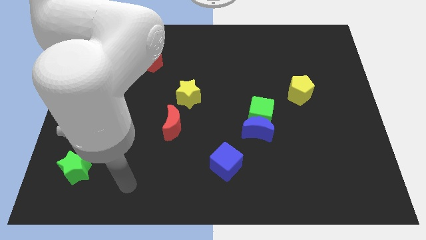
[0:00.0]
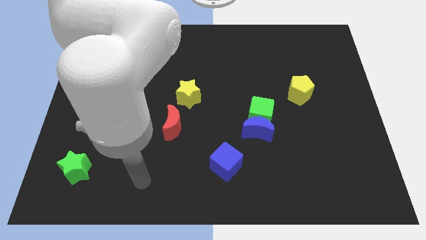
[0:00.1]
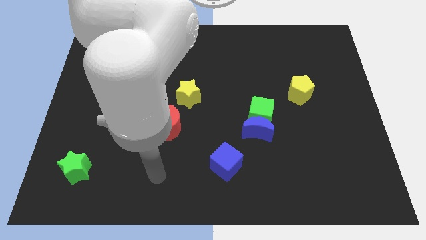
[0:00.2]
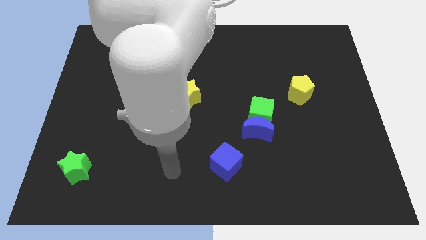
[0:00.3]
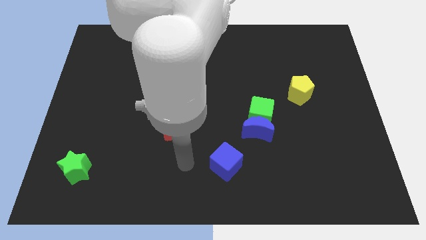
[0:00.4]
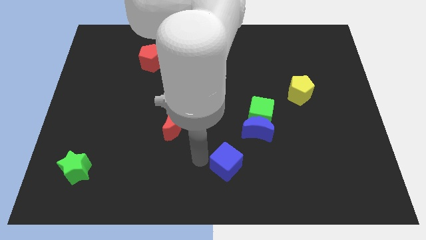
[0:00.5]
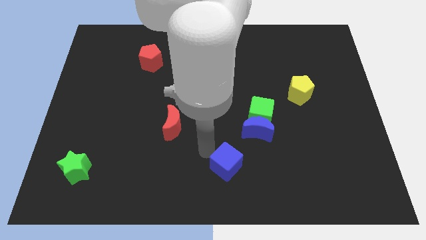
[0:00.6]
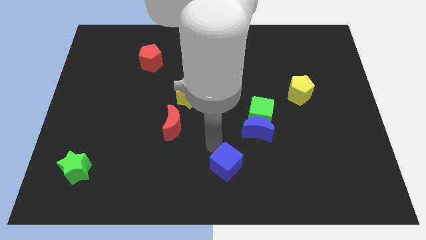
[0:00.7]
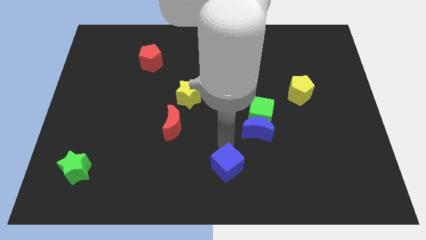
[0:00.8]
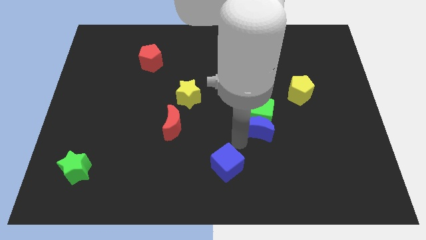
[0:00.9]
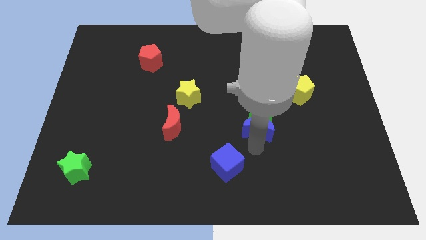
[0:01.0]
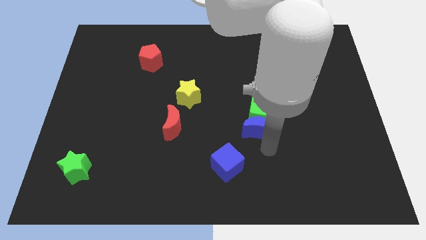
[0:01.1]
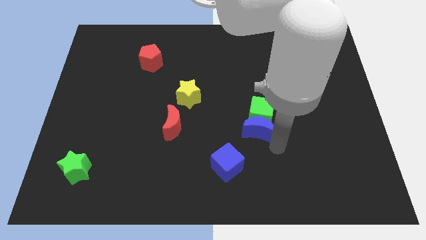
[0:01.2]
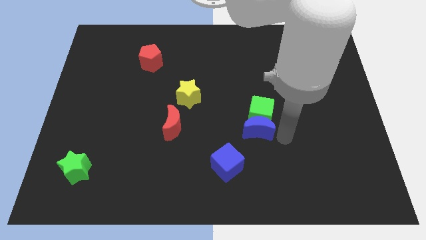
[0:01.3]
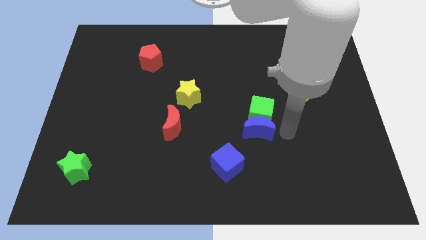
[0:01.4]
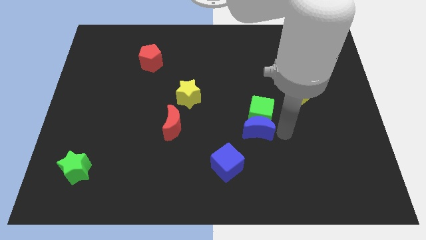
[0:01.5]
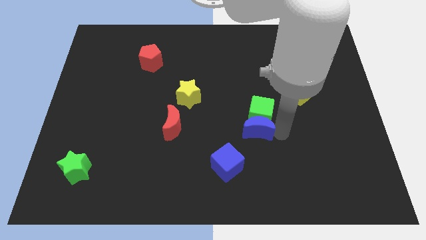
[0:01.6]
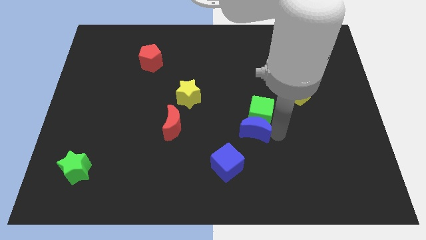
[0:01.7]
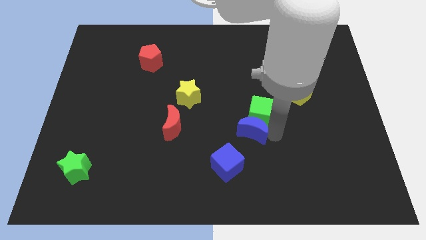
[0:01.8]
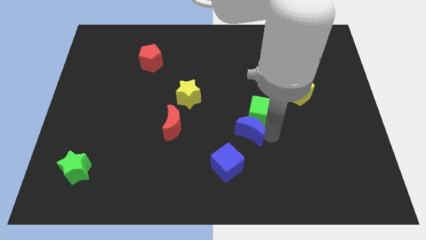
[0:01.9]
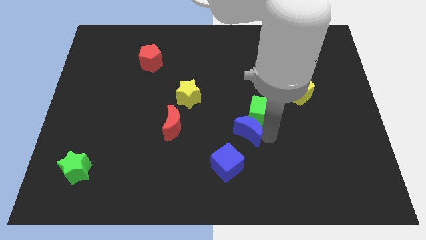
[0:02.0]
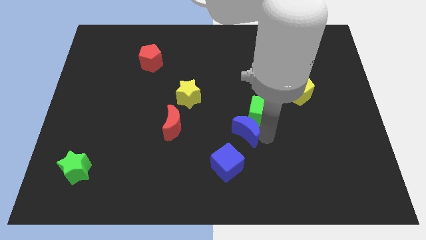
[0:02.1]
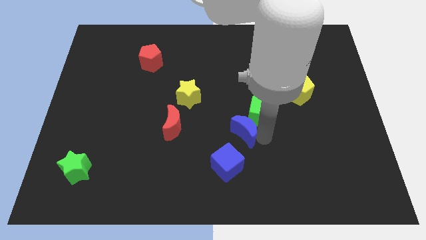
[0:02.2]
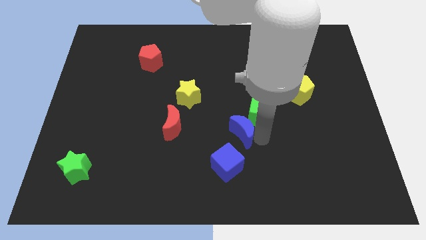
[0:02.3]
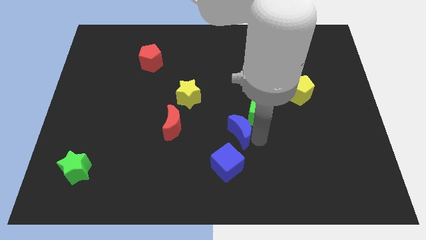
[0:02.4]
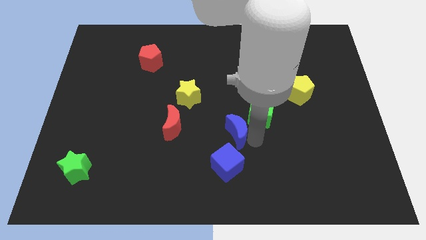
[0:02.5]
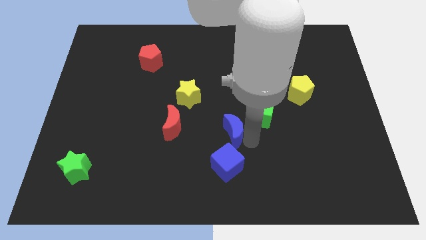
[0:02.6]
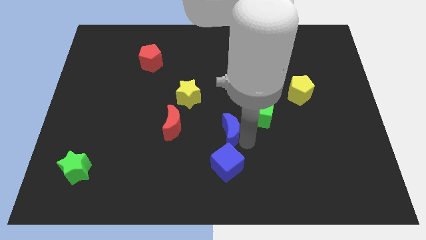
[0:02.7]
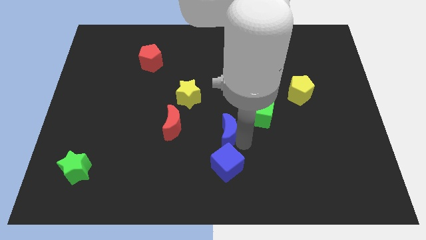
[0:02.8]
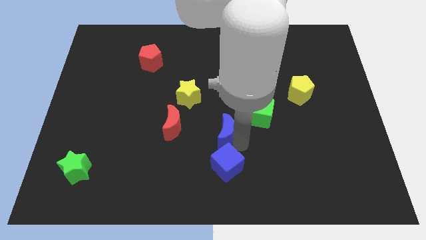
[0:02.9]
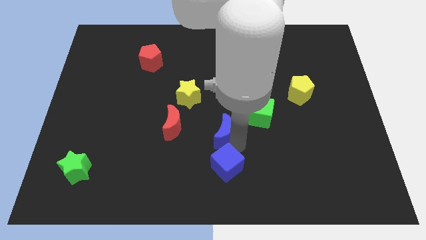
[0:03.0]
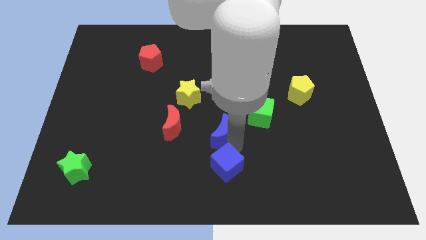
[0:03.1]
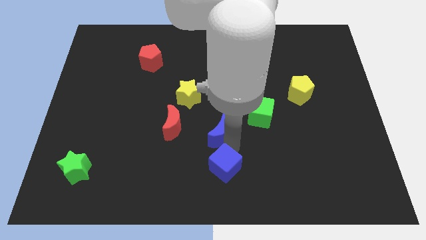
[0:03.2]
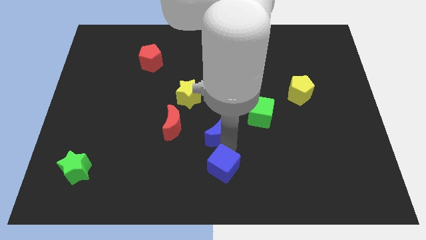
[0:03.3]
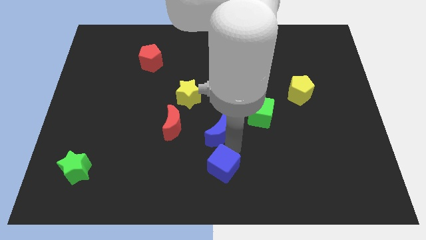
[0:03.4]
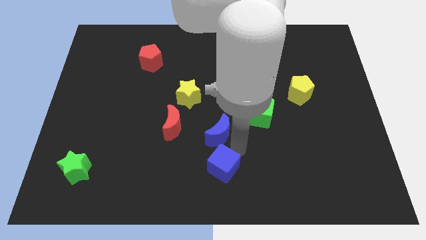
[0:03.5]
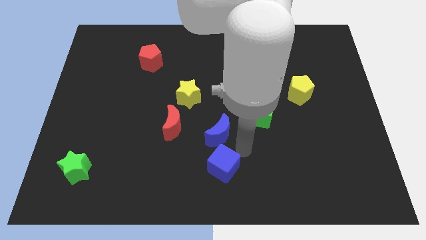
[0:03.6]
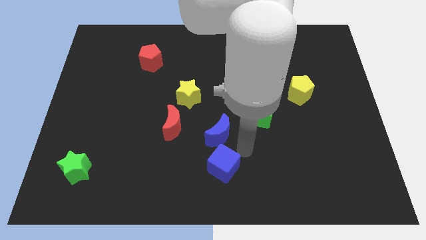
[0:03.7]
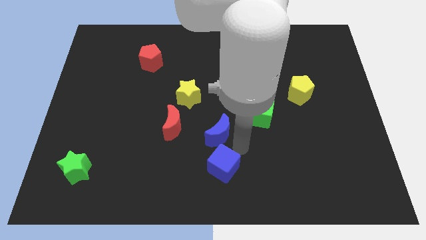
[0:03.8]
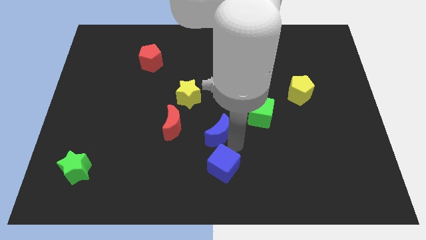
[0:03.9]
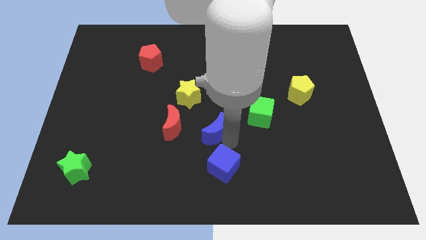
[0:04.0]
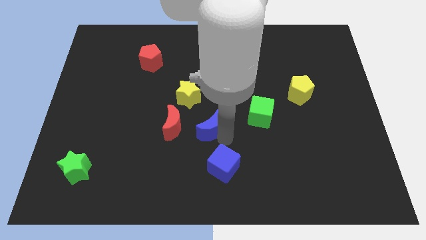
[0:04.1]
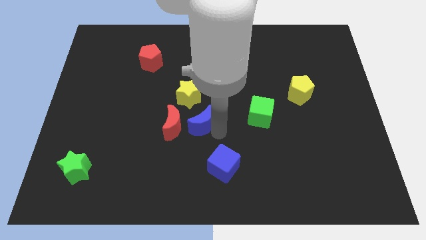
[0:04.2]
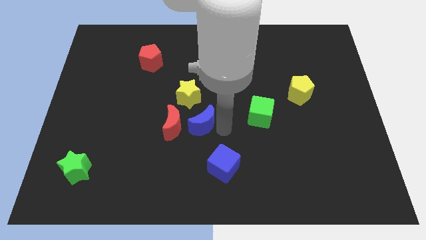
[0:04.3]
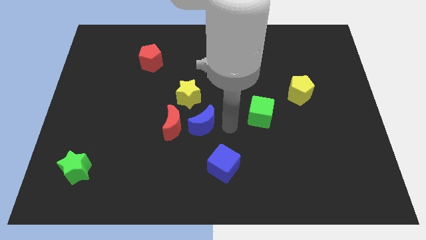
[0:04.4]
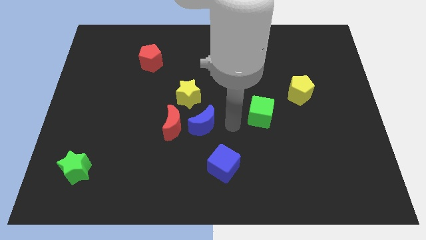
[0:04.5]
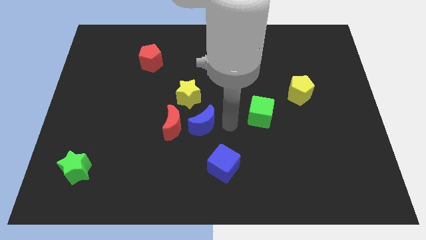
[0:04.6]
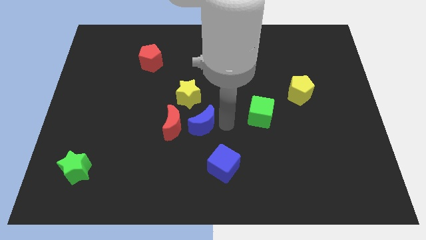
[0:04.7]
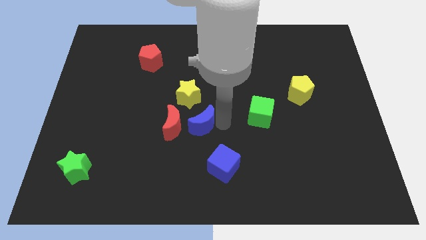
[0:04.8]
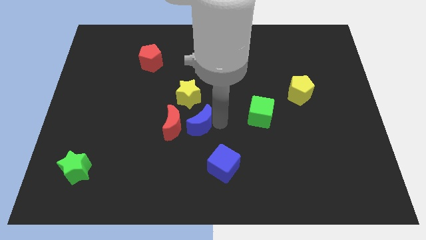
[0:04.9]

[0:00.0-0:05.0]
slide the blue moon next to the red moon

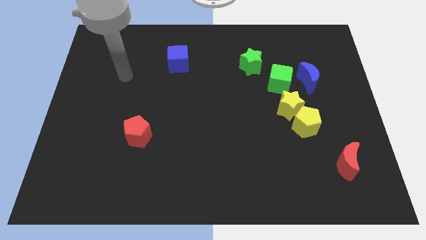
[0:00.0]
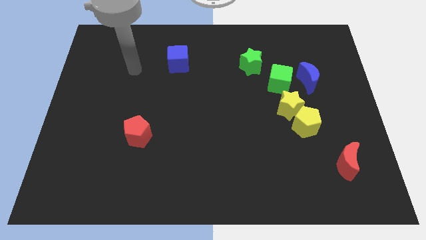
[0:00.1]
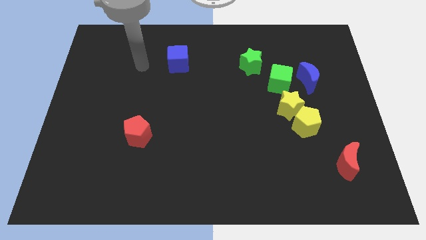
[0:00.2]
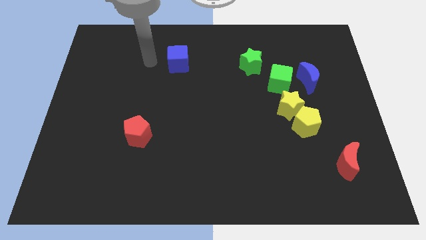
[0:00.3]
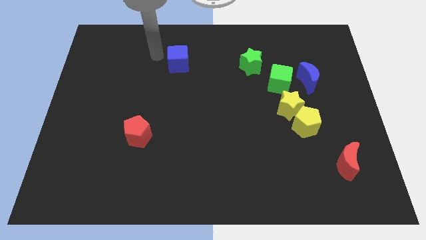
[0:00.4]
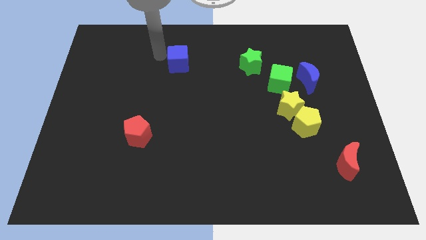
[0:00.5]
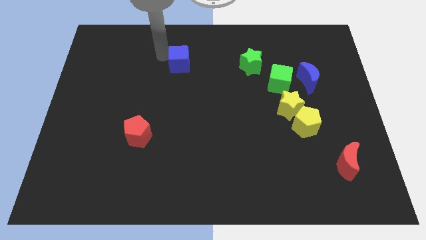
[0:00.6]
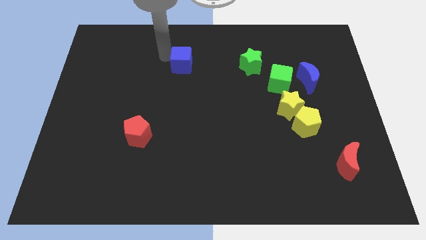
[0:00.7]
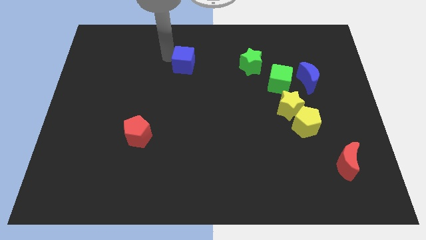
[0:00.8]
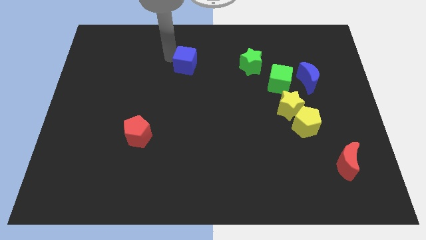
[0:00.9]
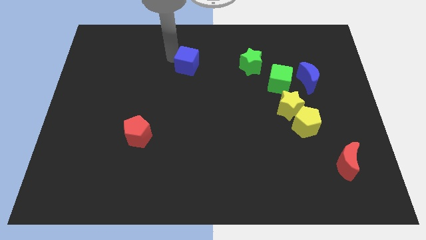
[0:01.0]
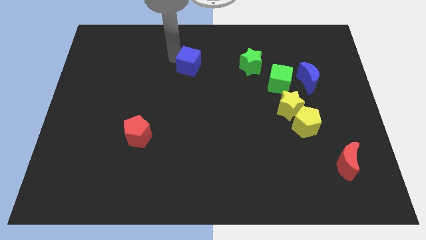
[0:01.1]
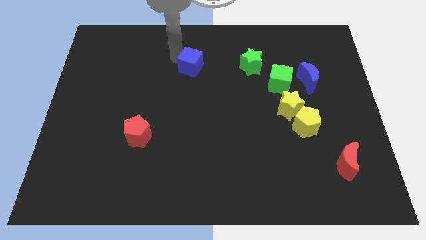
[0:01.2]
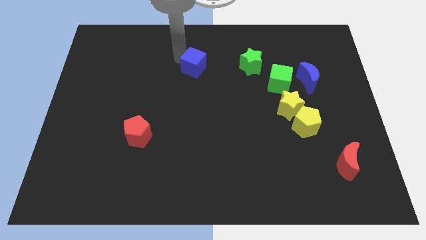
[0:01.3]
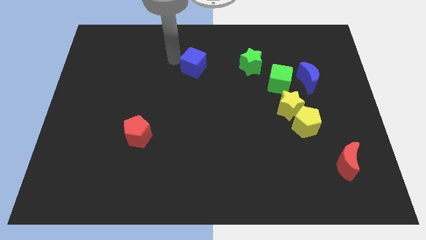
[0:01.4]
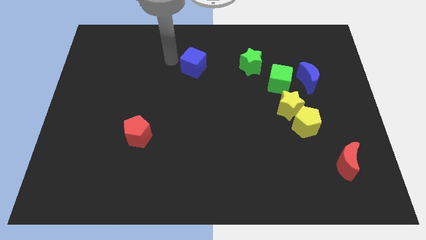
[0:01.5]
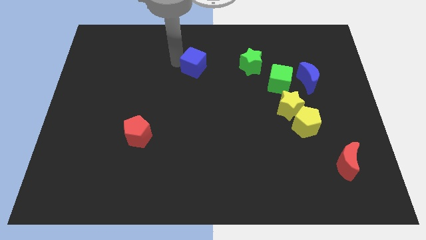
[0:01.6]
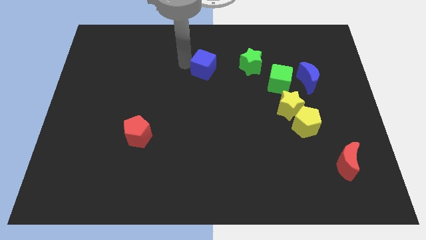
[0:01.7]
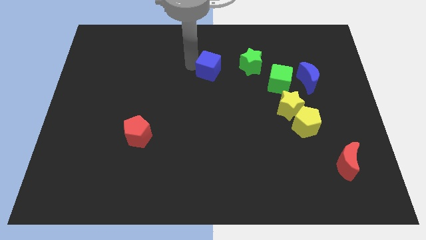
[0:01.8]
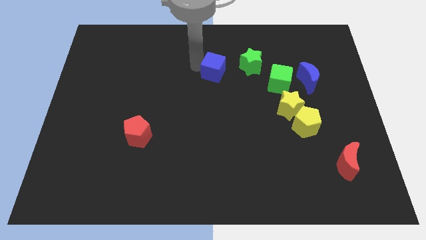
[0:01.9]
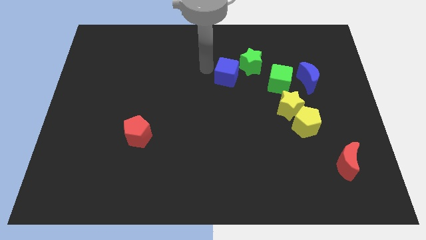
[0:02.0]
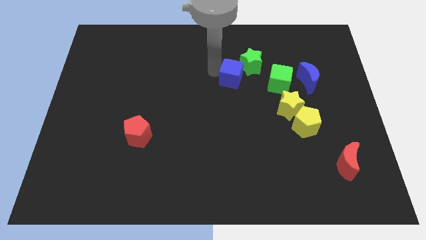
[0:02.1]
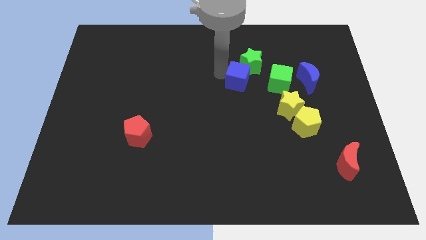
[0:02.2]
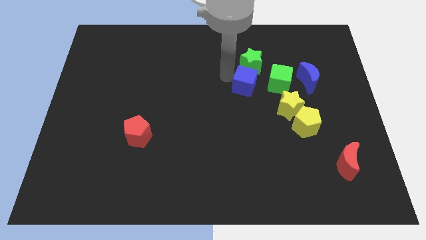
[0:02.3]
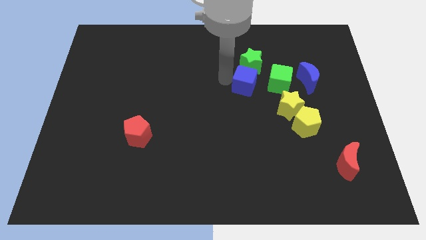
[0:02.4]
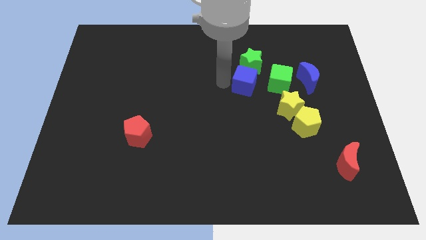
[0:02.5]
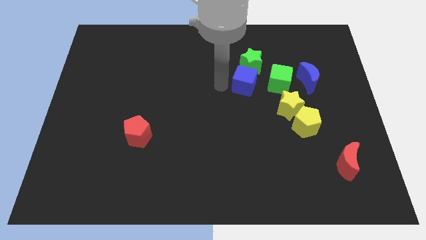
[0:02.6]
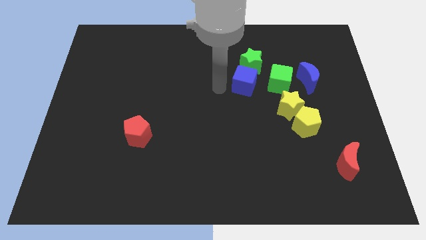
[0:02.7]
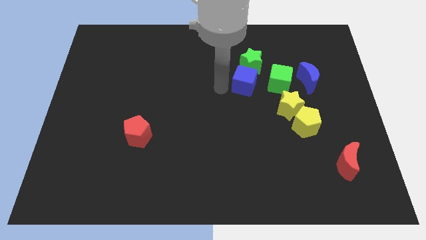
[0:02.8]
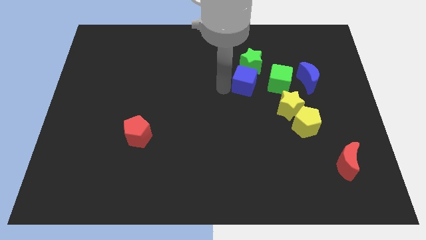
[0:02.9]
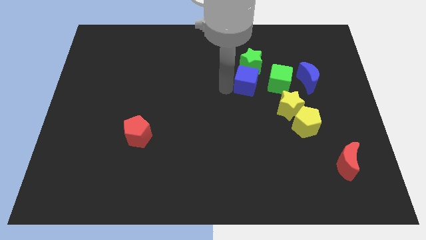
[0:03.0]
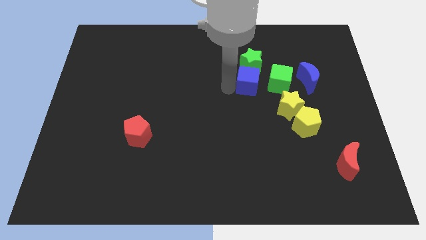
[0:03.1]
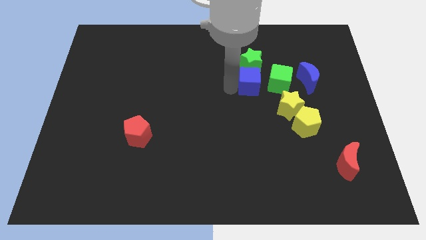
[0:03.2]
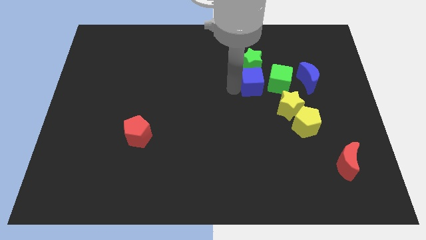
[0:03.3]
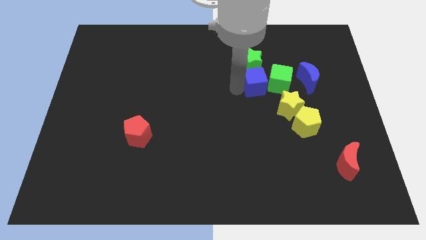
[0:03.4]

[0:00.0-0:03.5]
move the blue cube to the green cube
